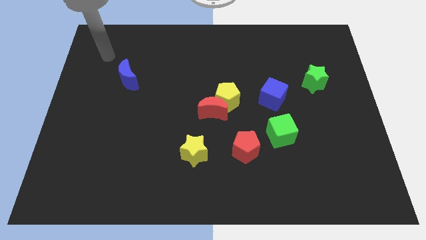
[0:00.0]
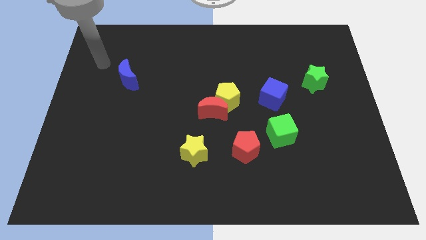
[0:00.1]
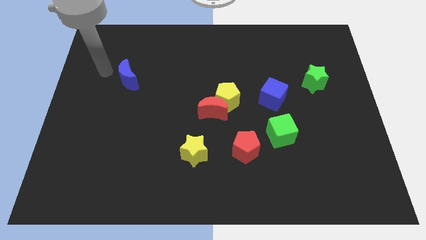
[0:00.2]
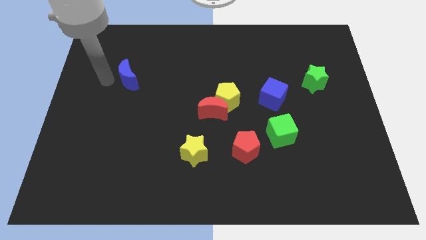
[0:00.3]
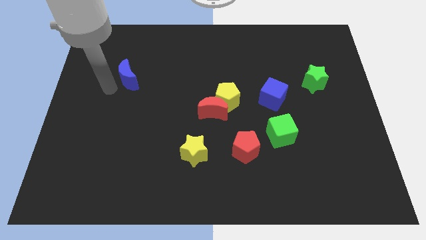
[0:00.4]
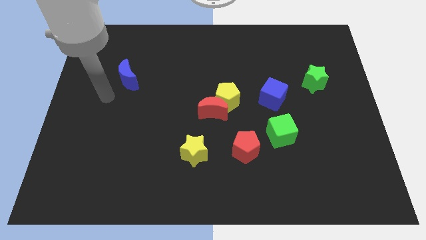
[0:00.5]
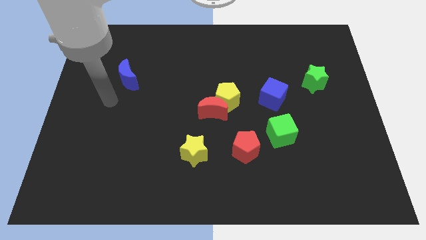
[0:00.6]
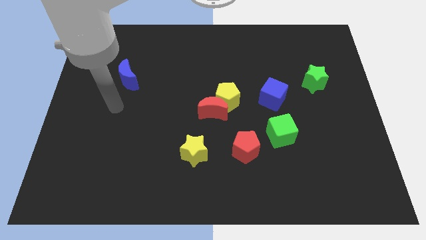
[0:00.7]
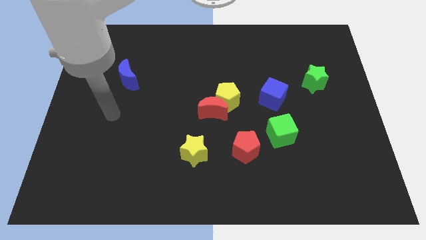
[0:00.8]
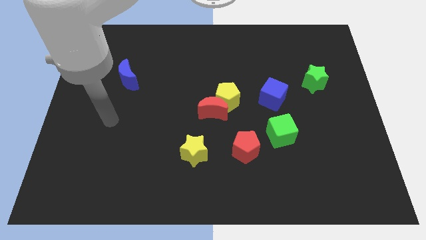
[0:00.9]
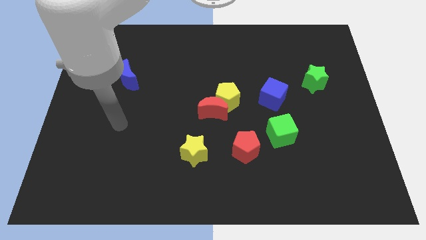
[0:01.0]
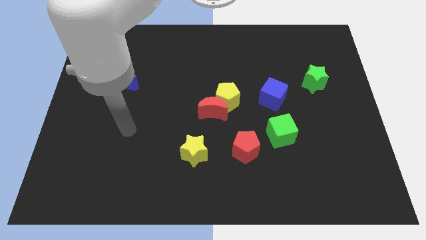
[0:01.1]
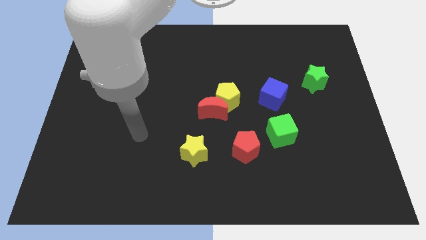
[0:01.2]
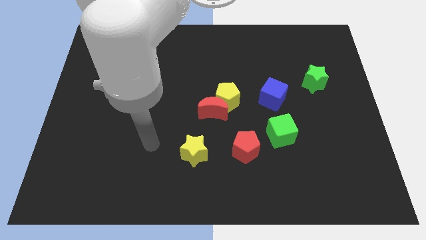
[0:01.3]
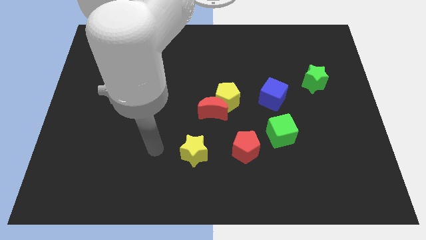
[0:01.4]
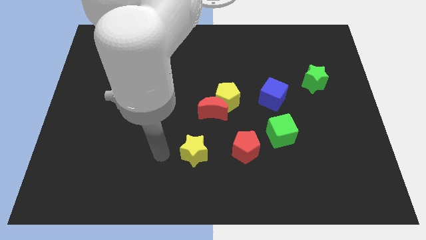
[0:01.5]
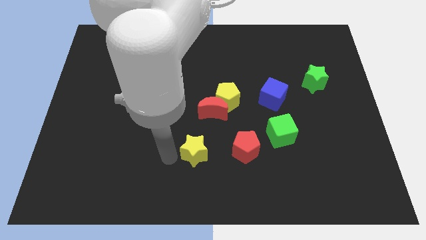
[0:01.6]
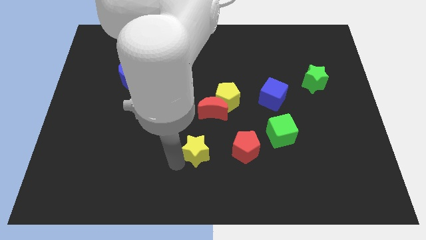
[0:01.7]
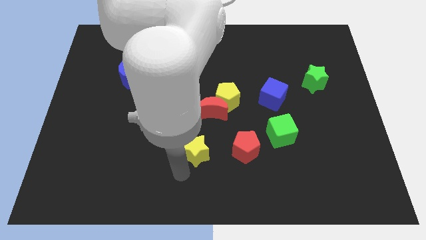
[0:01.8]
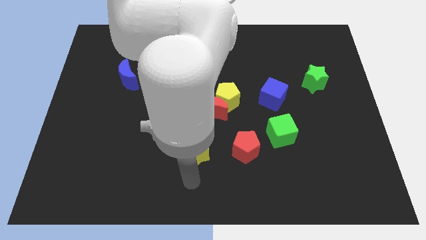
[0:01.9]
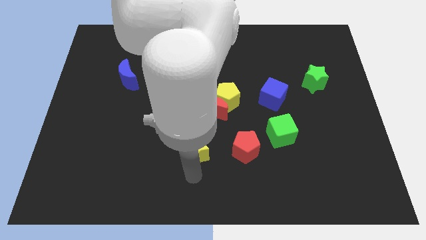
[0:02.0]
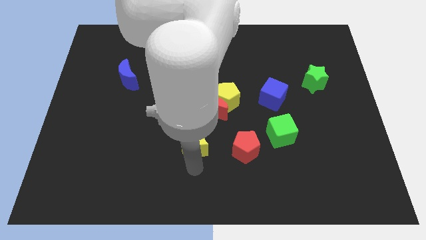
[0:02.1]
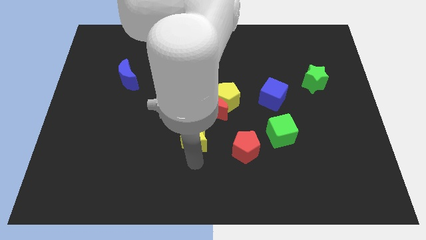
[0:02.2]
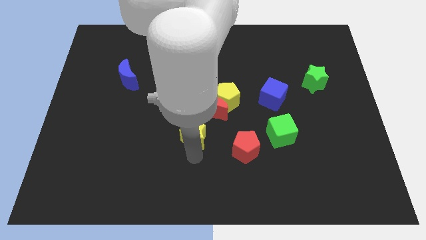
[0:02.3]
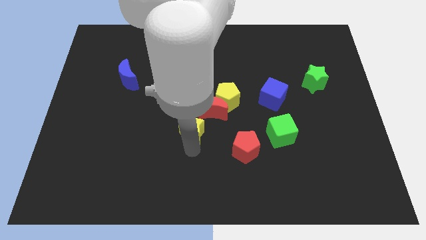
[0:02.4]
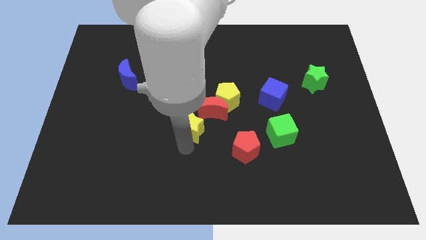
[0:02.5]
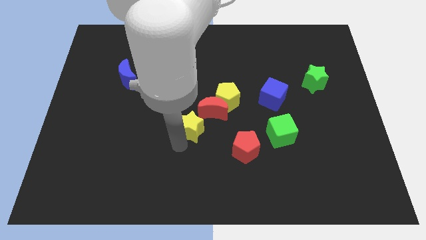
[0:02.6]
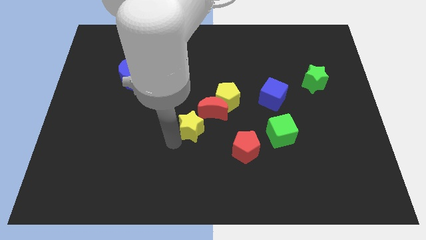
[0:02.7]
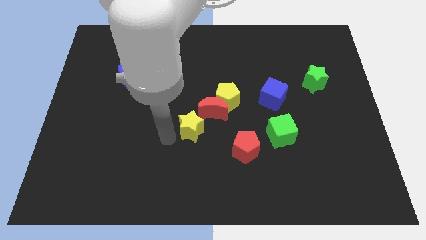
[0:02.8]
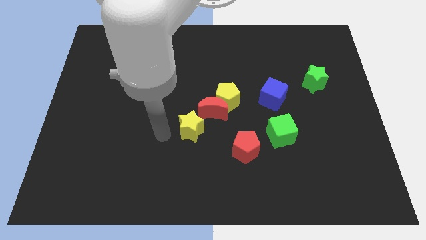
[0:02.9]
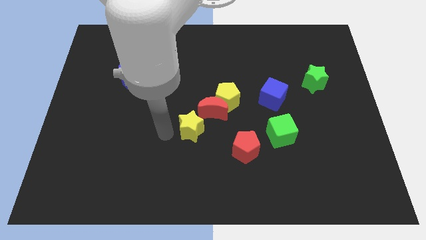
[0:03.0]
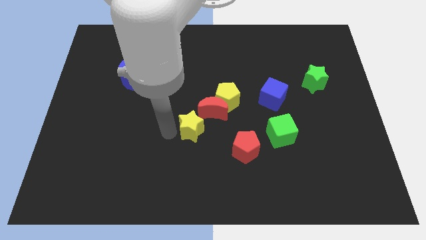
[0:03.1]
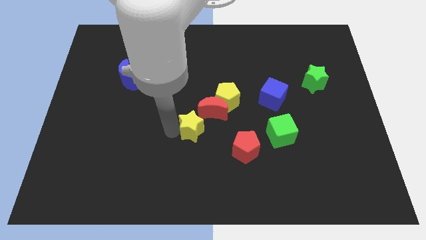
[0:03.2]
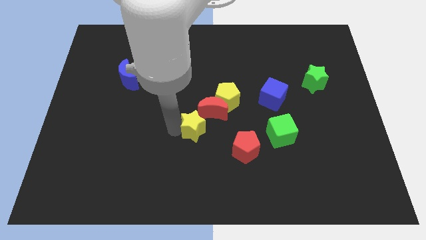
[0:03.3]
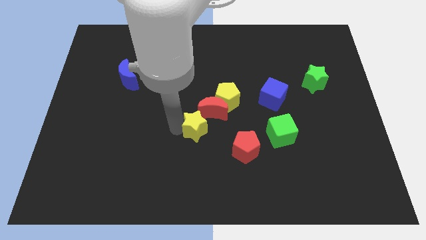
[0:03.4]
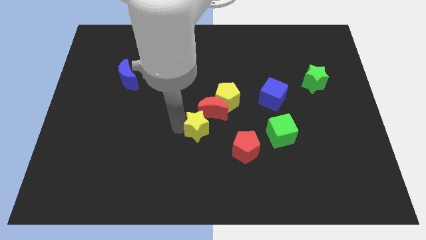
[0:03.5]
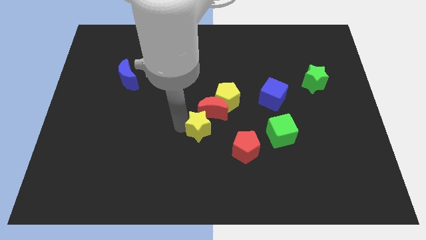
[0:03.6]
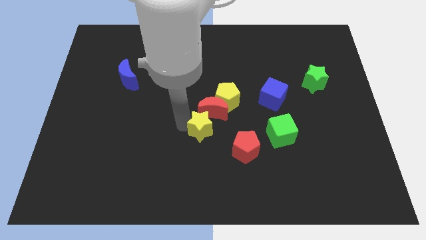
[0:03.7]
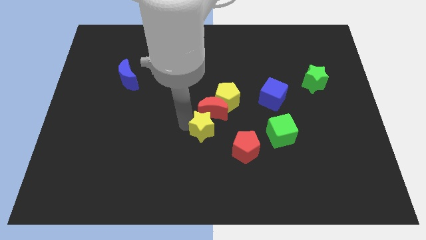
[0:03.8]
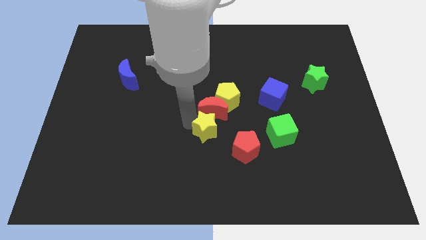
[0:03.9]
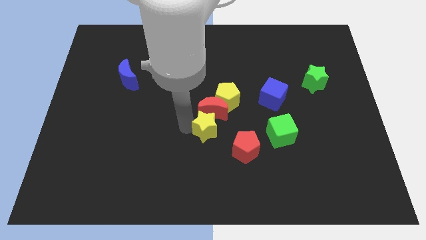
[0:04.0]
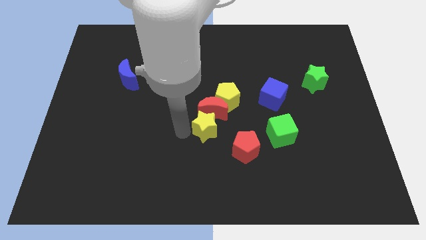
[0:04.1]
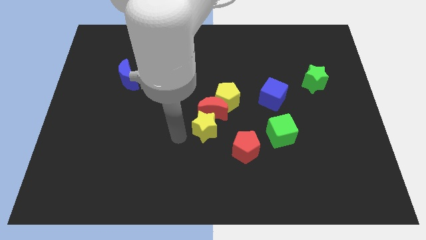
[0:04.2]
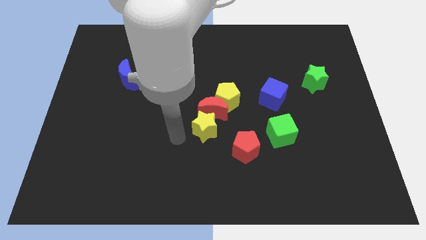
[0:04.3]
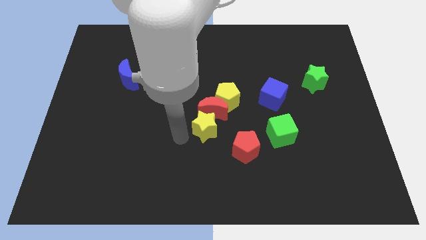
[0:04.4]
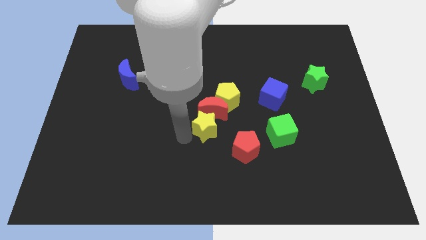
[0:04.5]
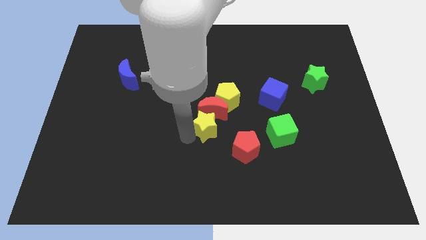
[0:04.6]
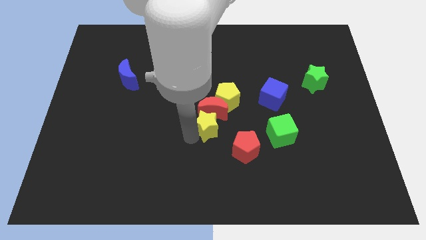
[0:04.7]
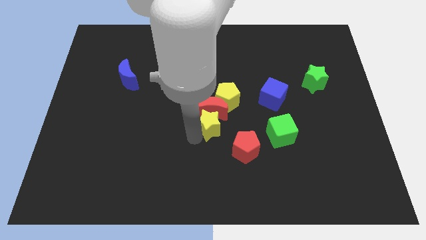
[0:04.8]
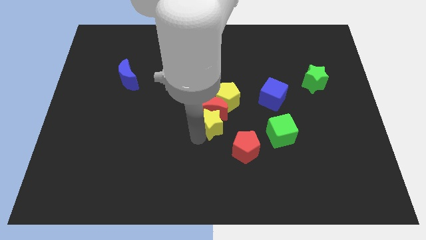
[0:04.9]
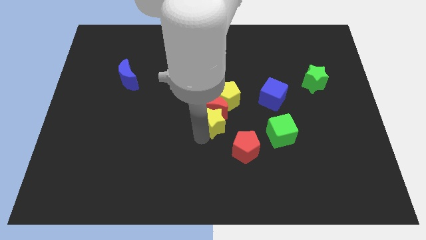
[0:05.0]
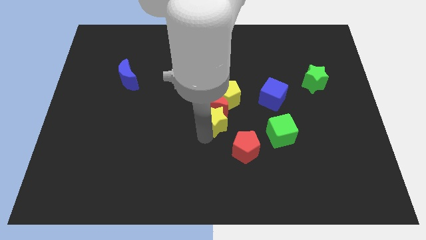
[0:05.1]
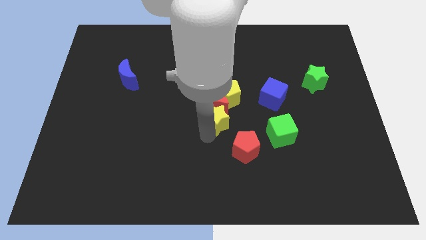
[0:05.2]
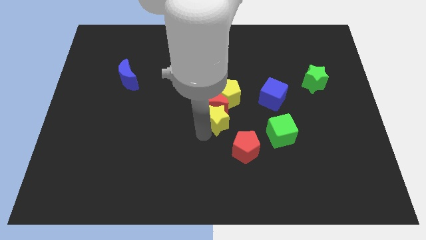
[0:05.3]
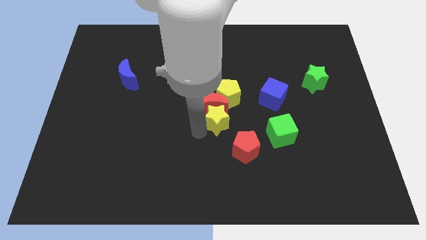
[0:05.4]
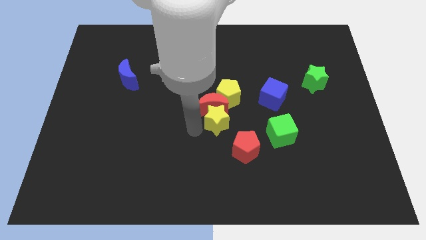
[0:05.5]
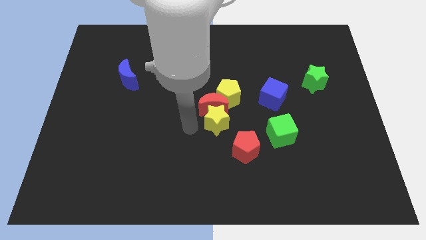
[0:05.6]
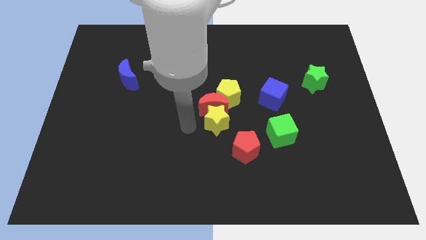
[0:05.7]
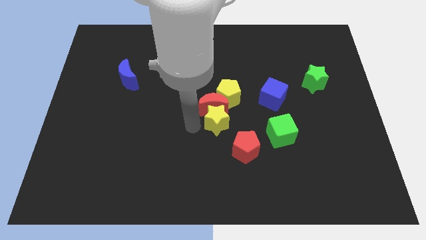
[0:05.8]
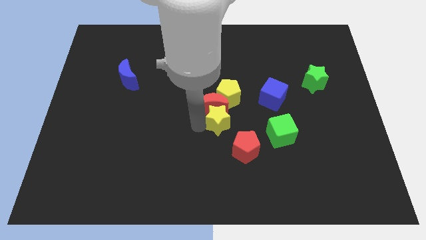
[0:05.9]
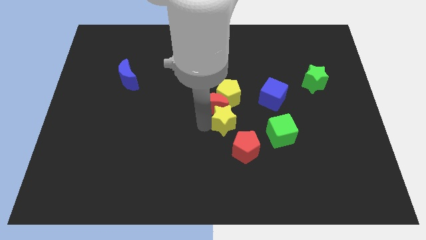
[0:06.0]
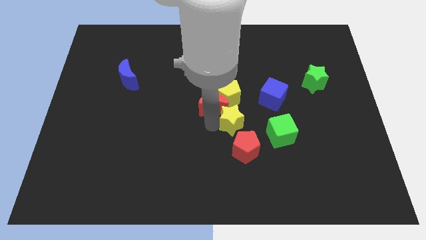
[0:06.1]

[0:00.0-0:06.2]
move the yellow star diagonally down and to the left of the blue cube

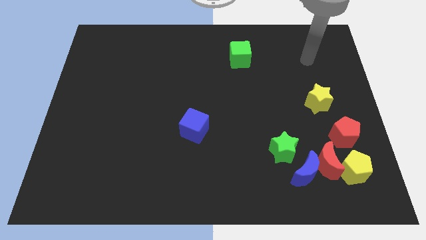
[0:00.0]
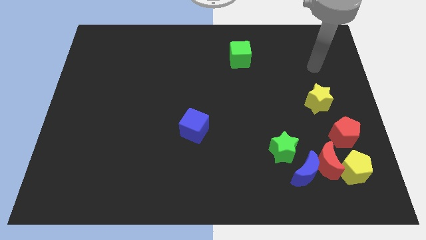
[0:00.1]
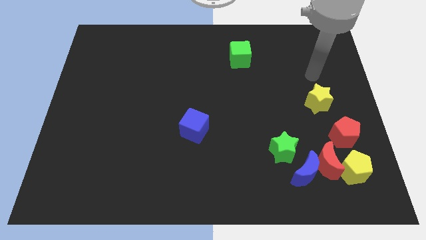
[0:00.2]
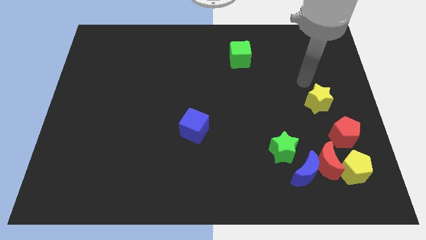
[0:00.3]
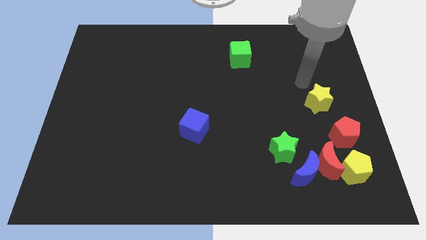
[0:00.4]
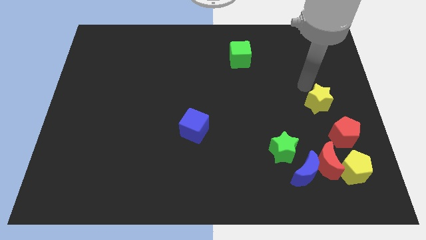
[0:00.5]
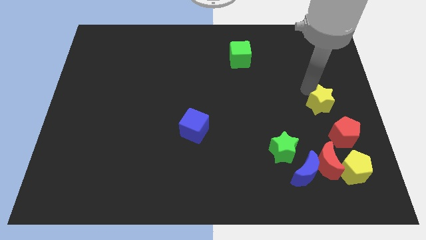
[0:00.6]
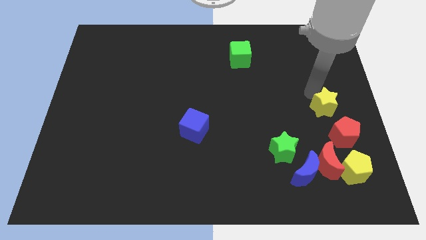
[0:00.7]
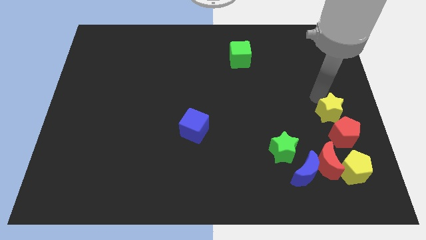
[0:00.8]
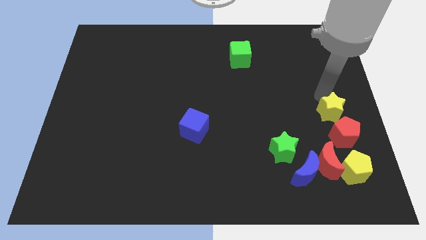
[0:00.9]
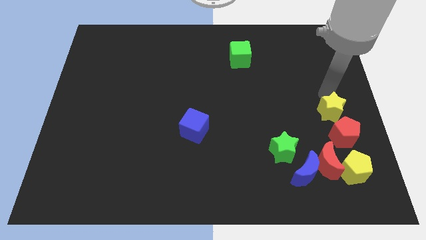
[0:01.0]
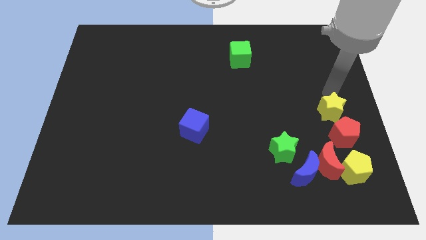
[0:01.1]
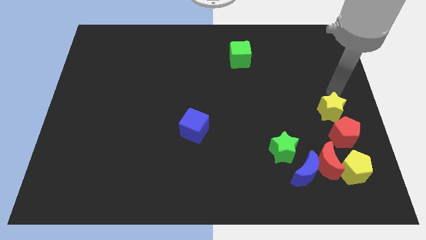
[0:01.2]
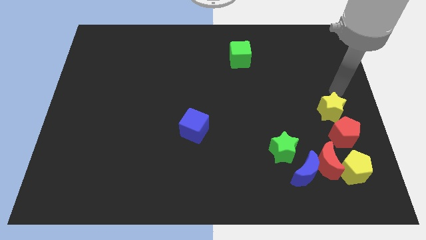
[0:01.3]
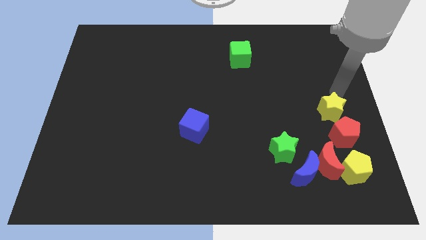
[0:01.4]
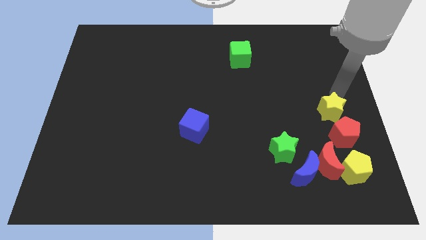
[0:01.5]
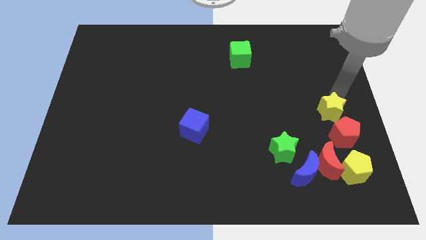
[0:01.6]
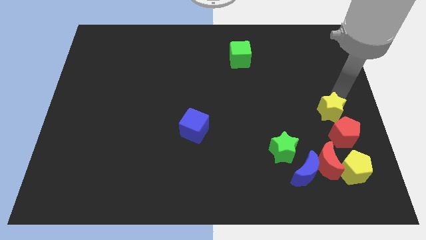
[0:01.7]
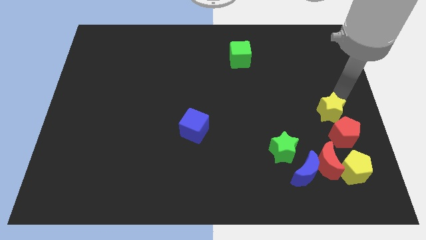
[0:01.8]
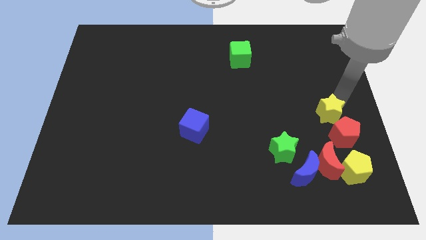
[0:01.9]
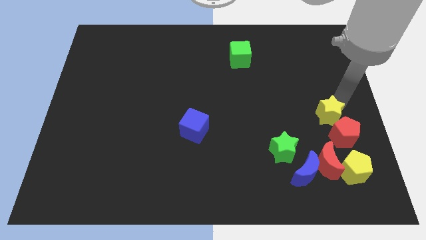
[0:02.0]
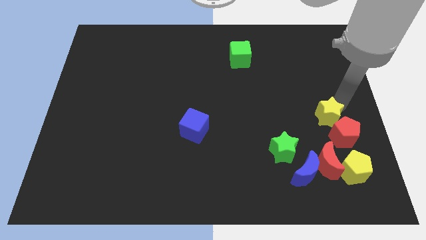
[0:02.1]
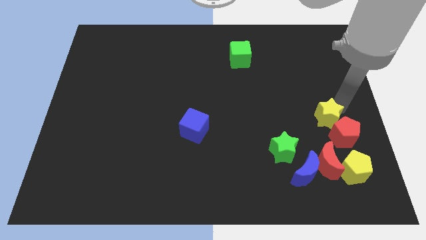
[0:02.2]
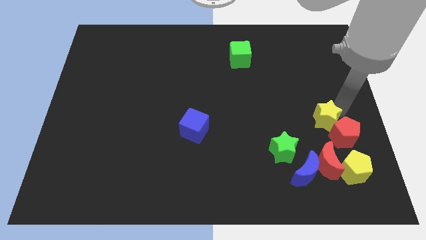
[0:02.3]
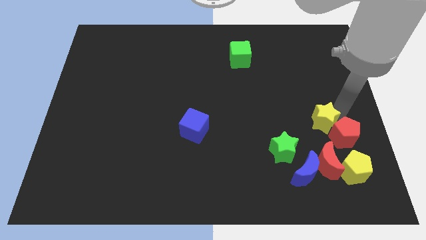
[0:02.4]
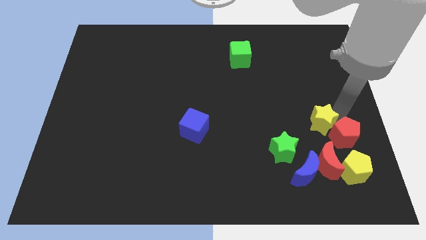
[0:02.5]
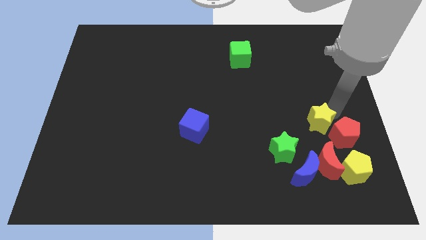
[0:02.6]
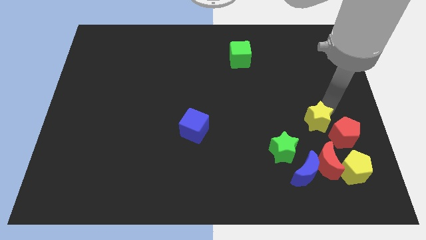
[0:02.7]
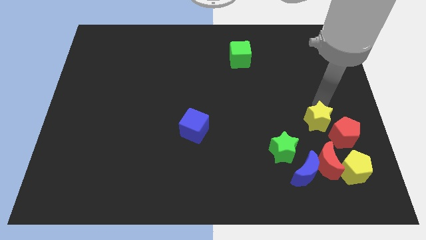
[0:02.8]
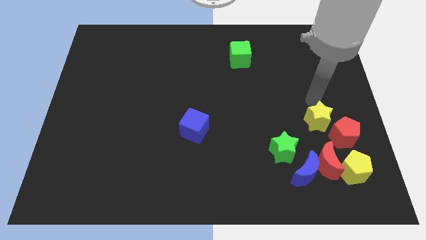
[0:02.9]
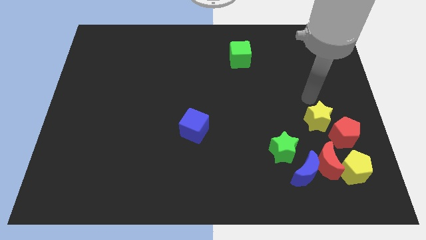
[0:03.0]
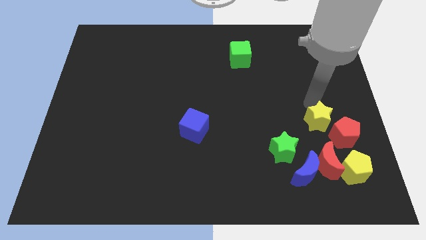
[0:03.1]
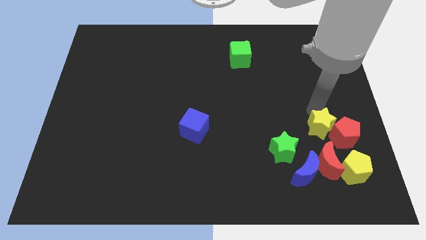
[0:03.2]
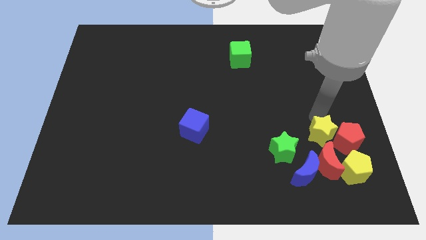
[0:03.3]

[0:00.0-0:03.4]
put the yellow star to the right of the green star
